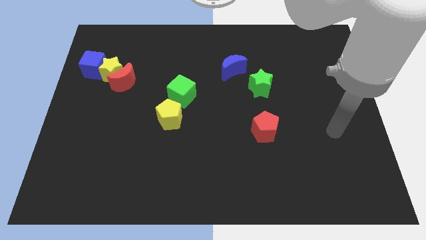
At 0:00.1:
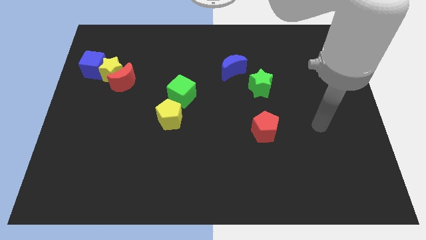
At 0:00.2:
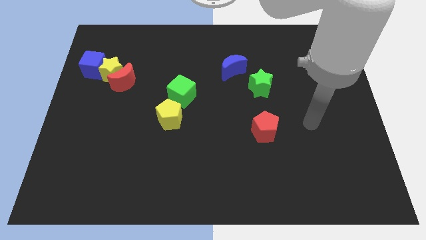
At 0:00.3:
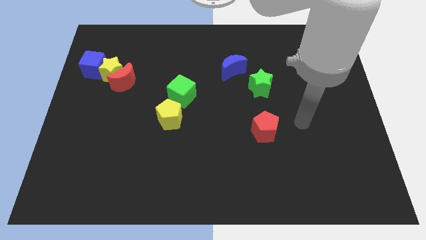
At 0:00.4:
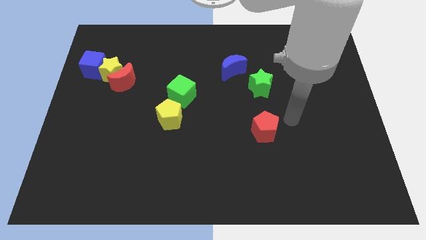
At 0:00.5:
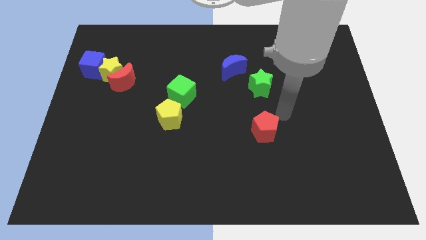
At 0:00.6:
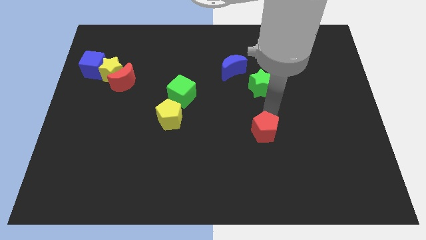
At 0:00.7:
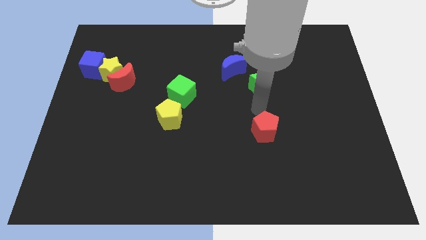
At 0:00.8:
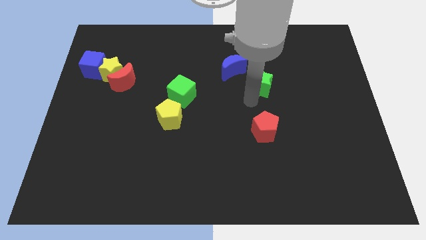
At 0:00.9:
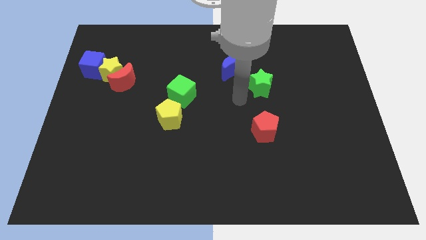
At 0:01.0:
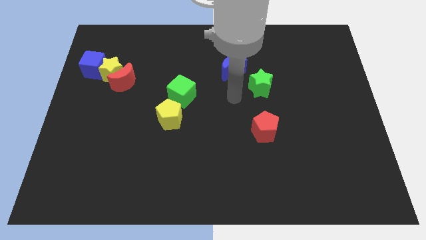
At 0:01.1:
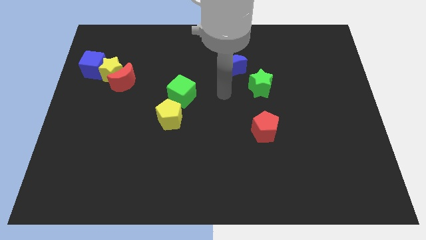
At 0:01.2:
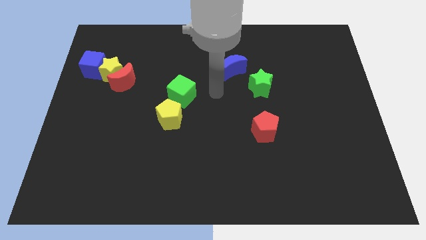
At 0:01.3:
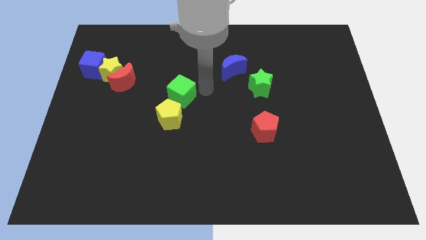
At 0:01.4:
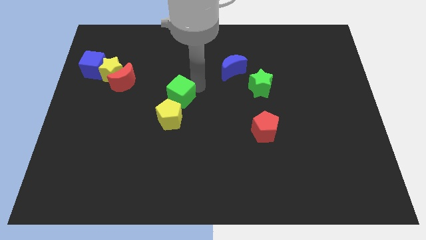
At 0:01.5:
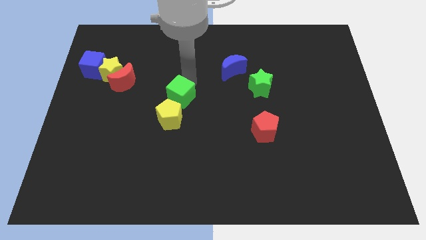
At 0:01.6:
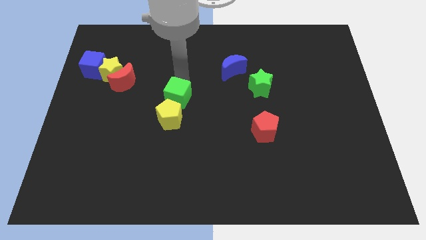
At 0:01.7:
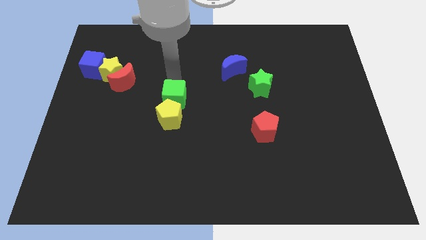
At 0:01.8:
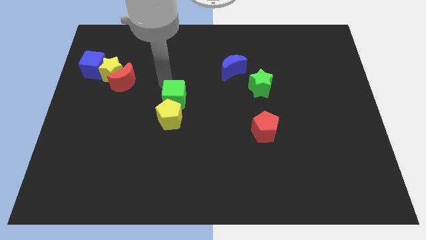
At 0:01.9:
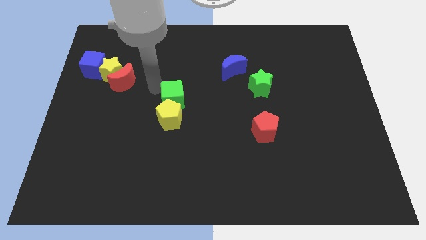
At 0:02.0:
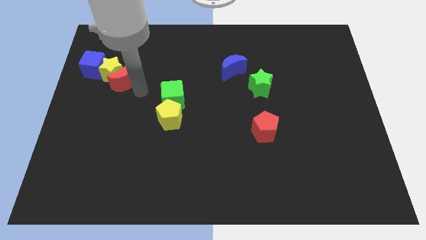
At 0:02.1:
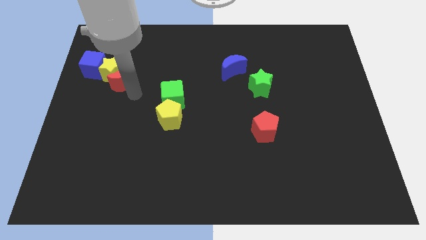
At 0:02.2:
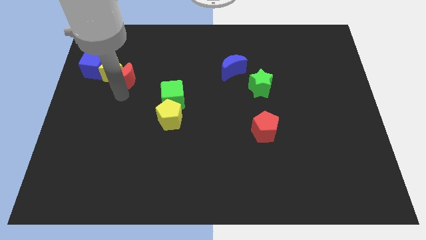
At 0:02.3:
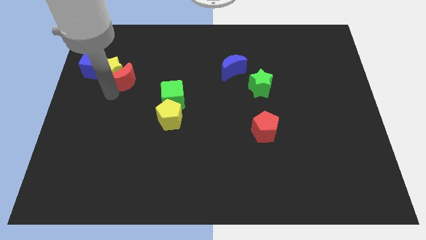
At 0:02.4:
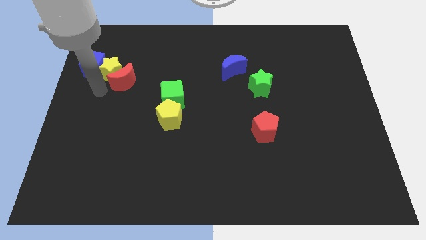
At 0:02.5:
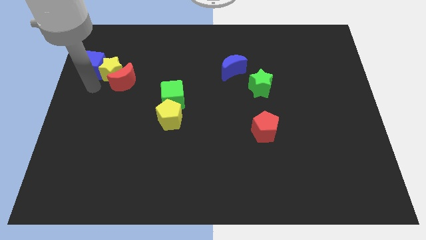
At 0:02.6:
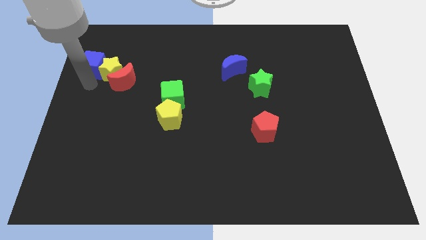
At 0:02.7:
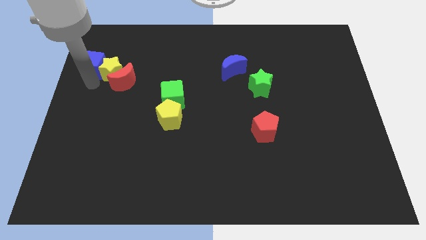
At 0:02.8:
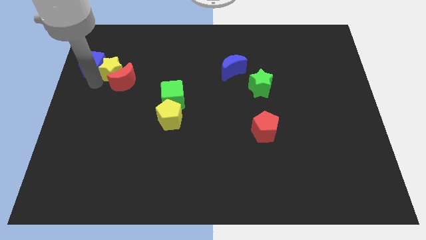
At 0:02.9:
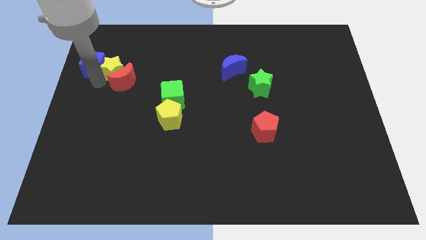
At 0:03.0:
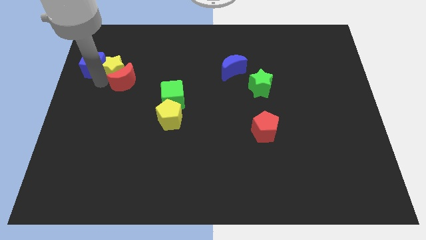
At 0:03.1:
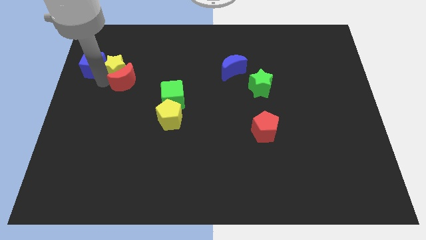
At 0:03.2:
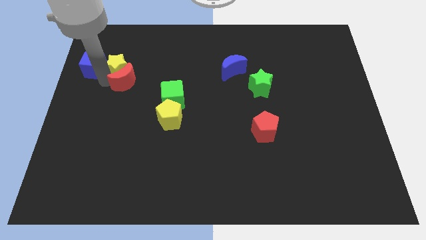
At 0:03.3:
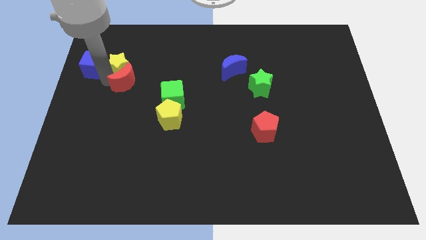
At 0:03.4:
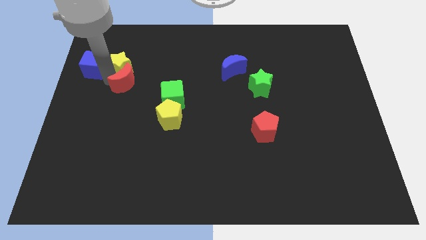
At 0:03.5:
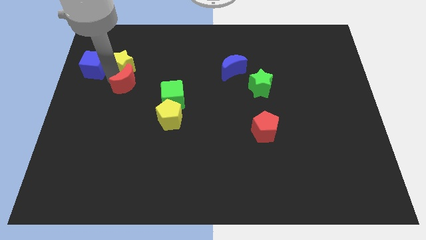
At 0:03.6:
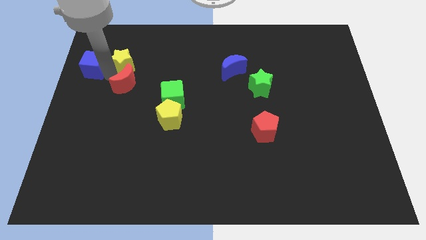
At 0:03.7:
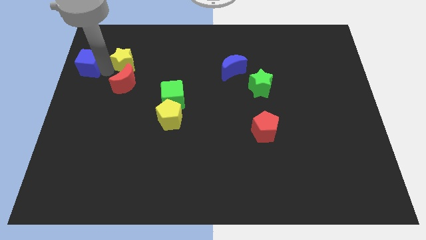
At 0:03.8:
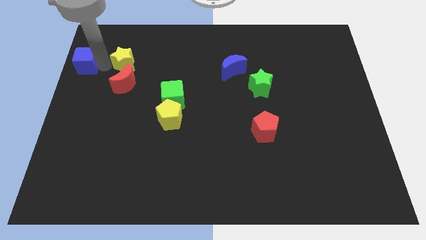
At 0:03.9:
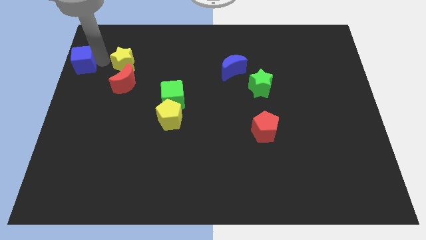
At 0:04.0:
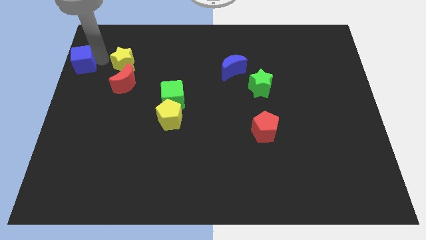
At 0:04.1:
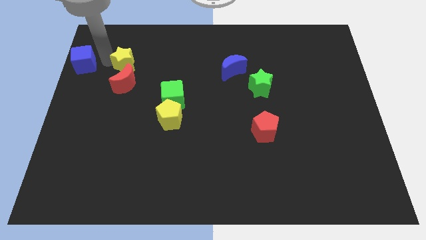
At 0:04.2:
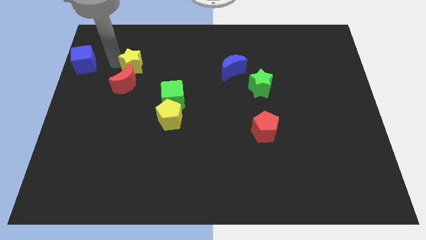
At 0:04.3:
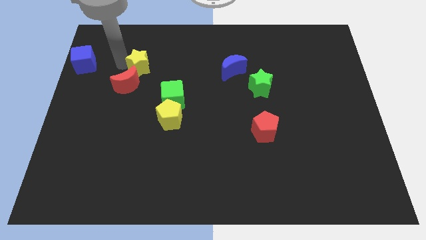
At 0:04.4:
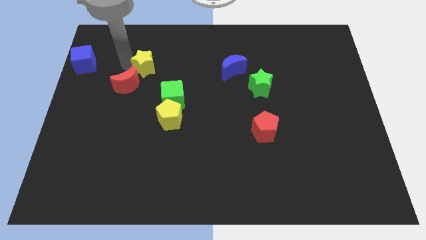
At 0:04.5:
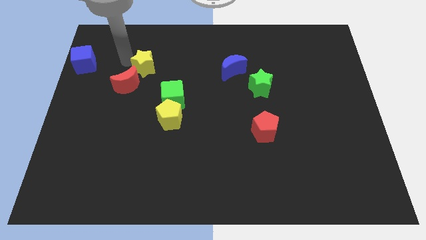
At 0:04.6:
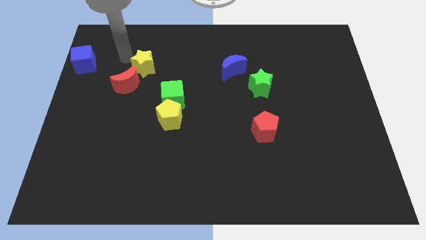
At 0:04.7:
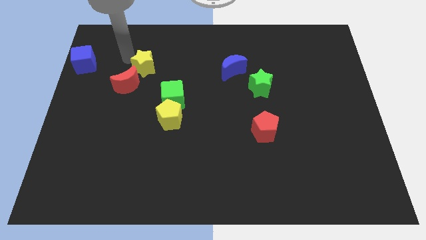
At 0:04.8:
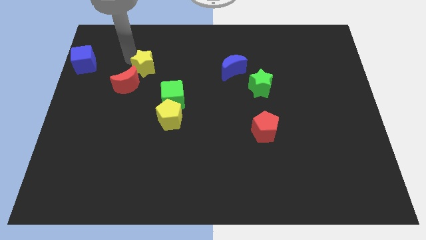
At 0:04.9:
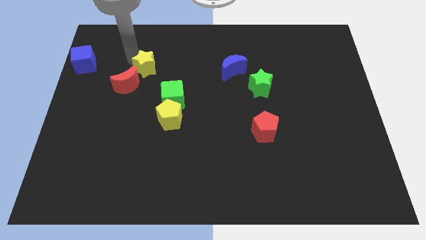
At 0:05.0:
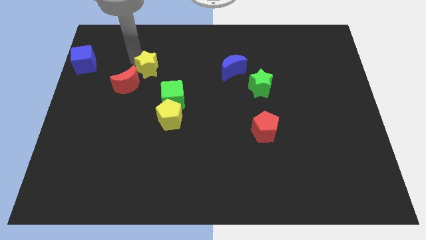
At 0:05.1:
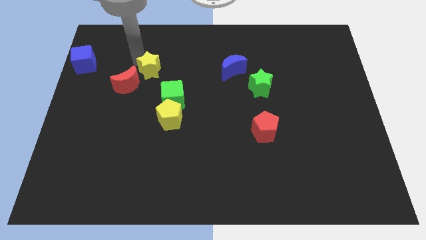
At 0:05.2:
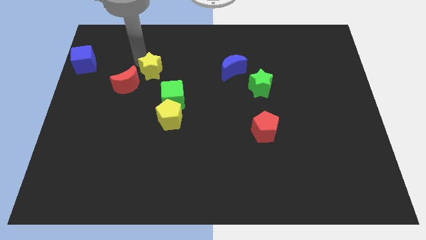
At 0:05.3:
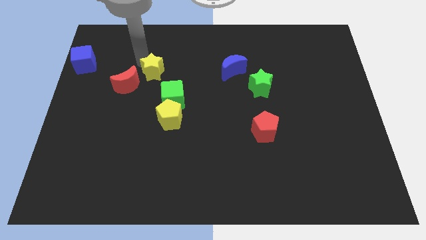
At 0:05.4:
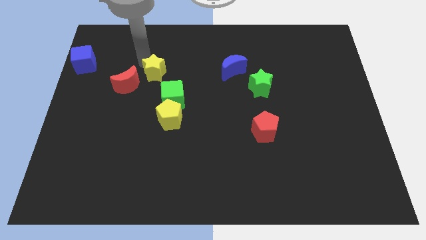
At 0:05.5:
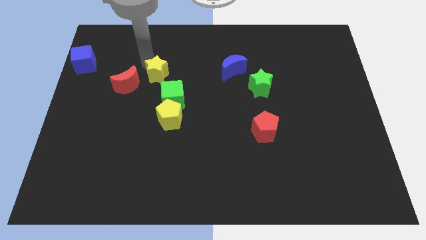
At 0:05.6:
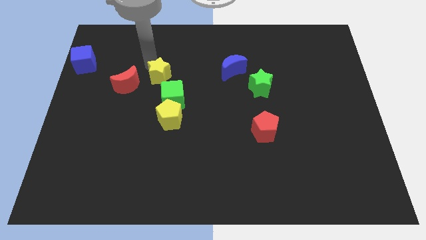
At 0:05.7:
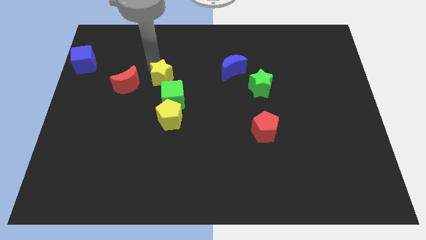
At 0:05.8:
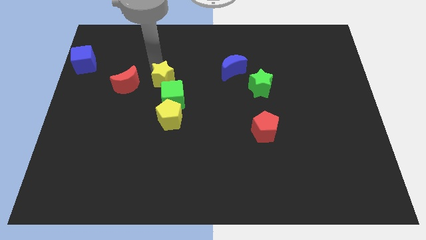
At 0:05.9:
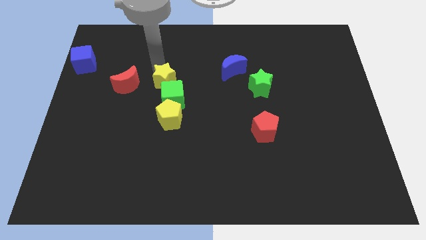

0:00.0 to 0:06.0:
push the yellow star to the green cube
